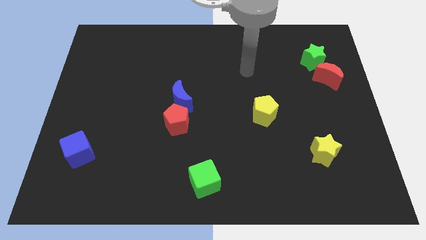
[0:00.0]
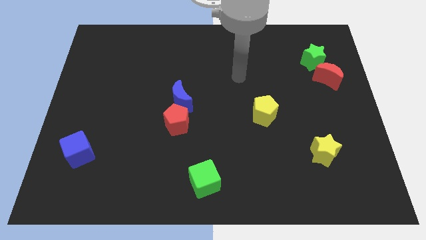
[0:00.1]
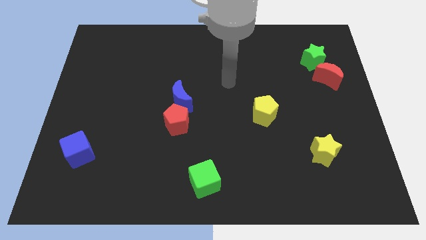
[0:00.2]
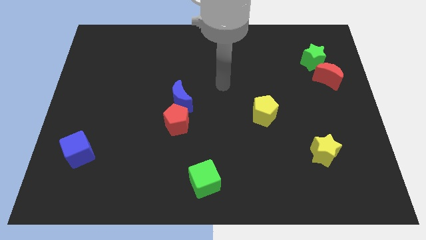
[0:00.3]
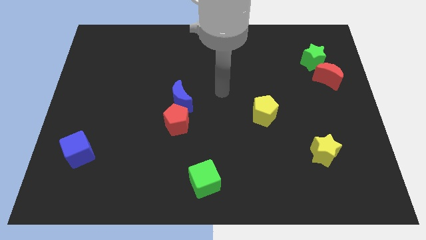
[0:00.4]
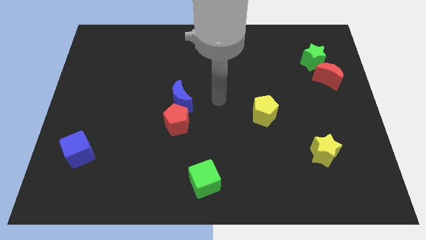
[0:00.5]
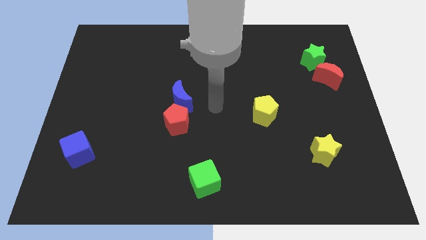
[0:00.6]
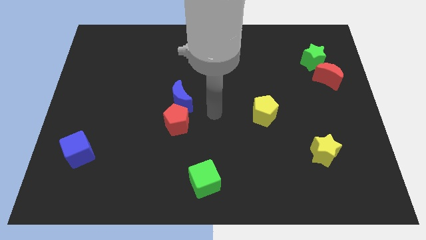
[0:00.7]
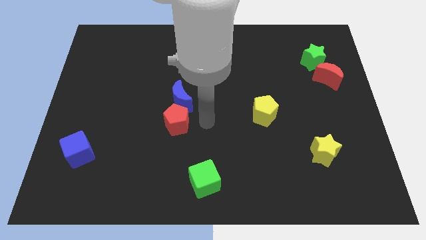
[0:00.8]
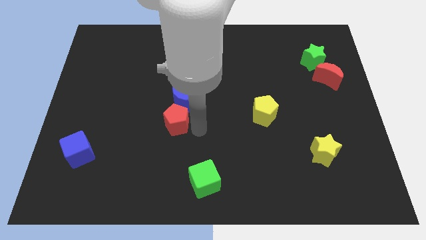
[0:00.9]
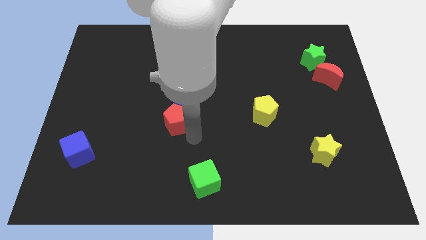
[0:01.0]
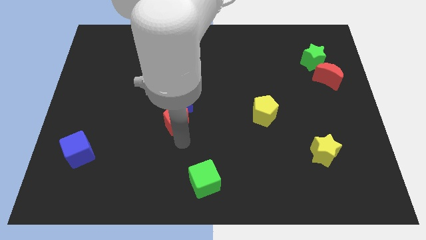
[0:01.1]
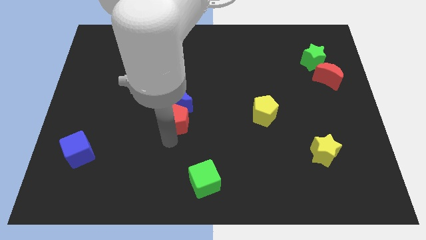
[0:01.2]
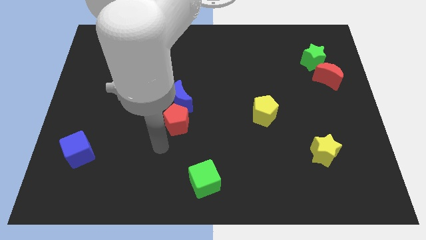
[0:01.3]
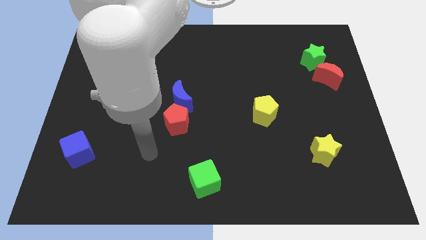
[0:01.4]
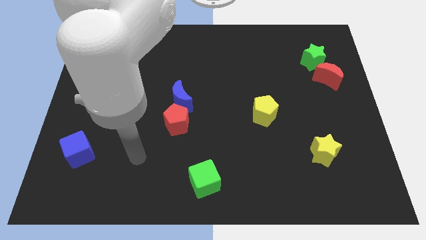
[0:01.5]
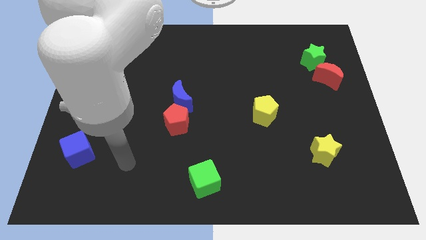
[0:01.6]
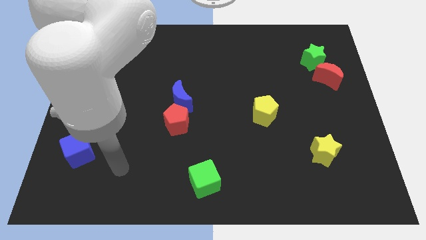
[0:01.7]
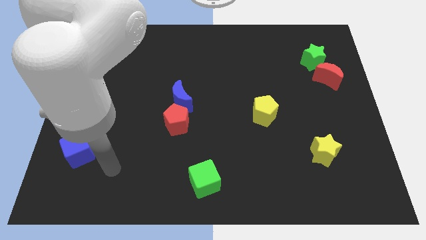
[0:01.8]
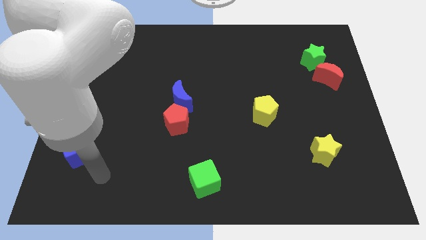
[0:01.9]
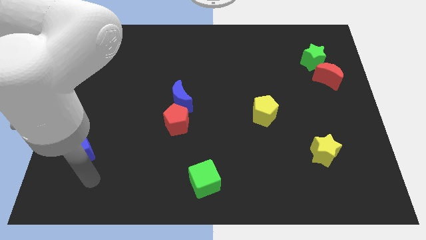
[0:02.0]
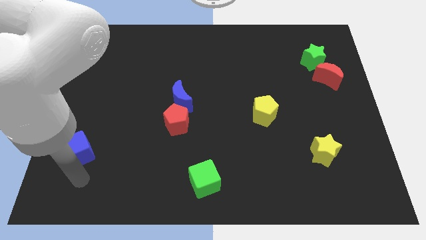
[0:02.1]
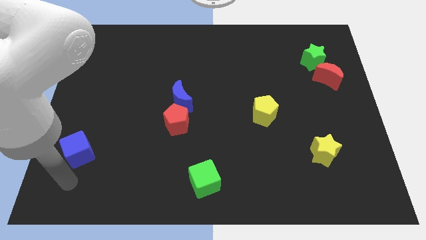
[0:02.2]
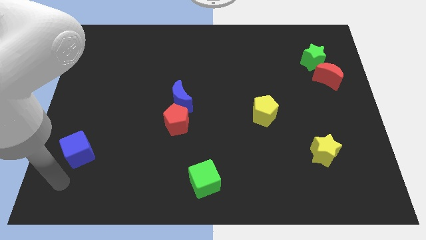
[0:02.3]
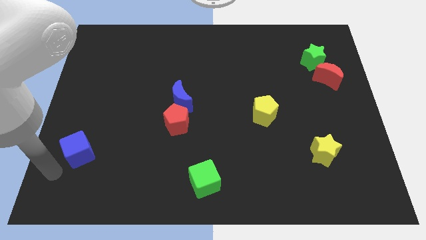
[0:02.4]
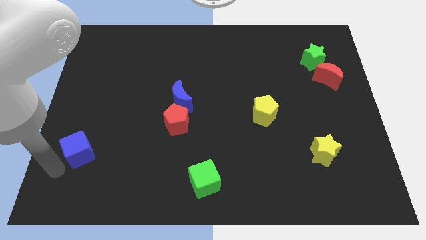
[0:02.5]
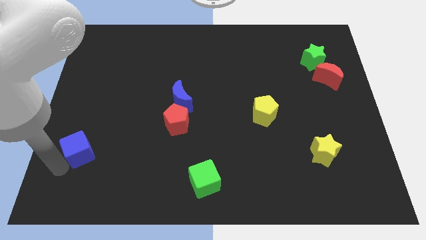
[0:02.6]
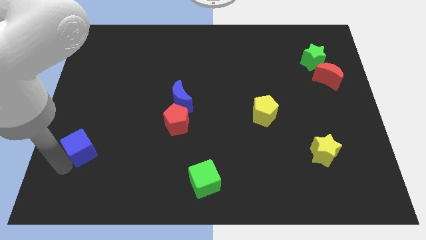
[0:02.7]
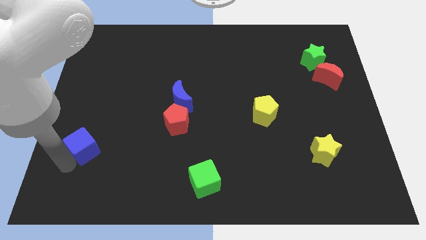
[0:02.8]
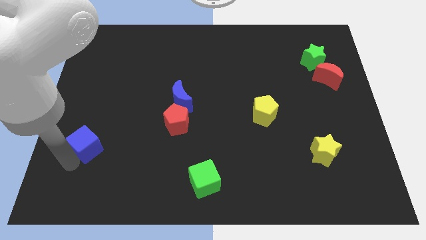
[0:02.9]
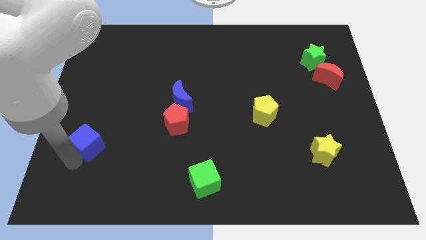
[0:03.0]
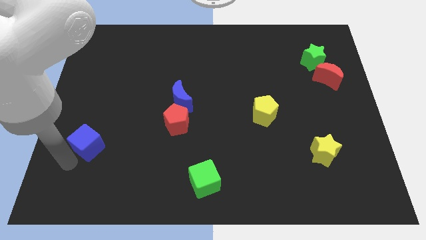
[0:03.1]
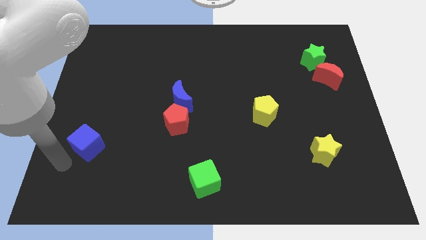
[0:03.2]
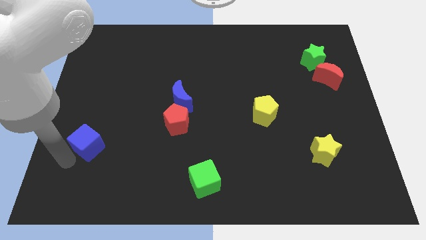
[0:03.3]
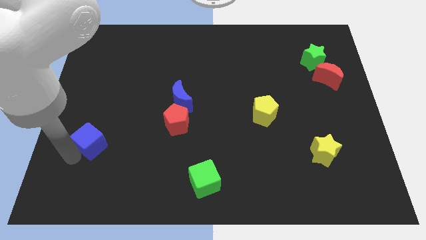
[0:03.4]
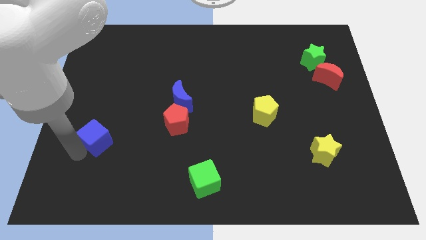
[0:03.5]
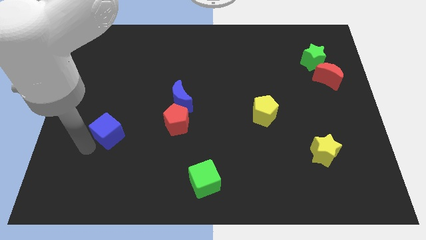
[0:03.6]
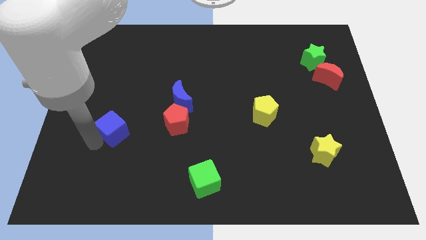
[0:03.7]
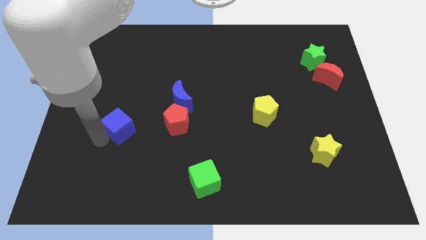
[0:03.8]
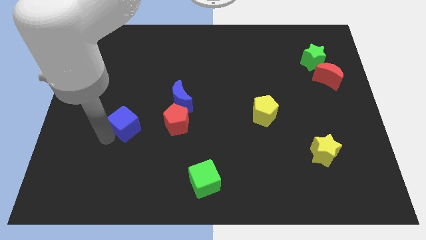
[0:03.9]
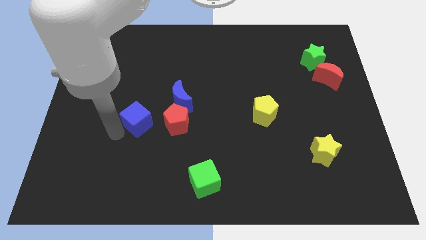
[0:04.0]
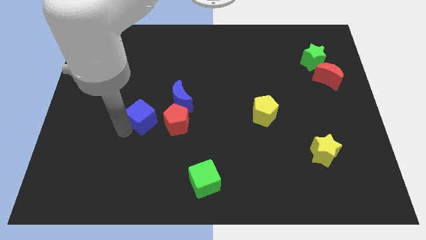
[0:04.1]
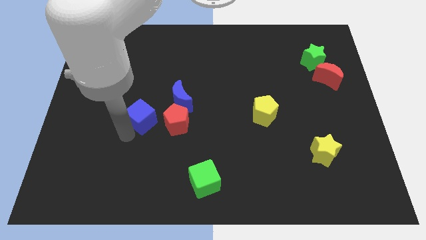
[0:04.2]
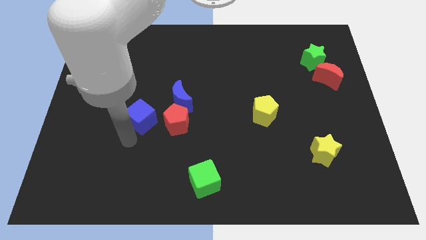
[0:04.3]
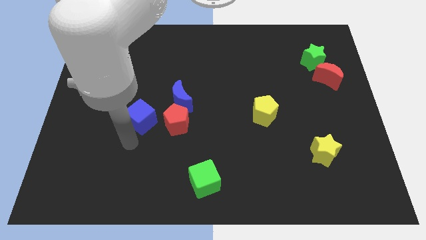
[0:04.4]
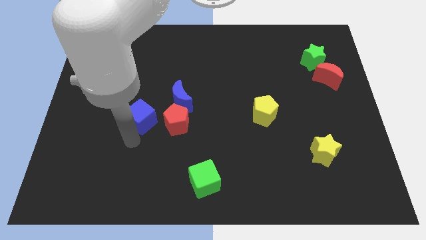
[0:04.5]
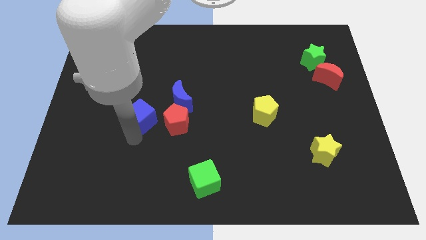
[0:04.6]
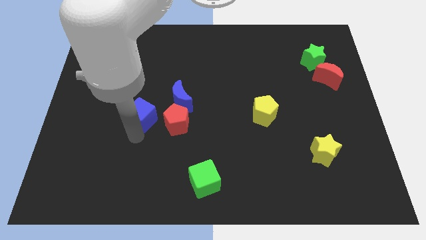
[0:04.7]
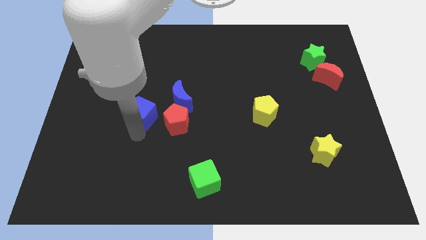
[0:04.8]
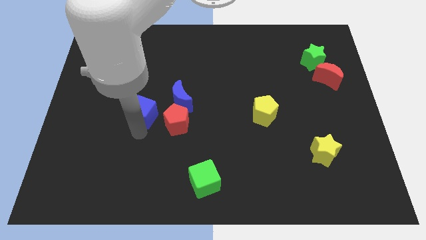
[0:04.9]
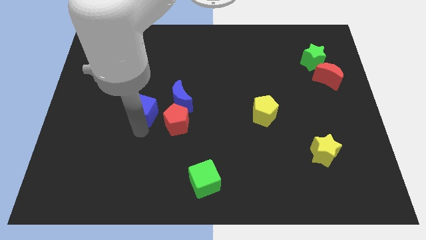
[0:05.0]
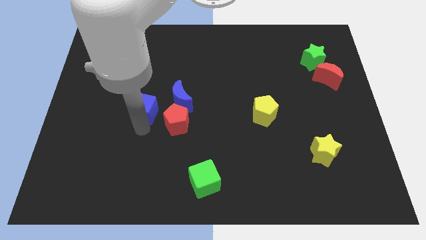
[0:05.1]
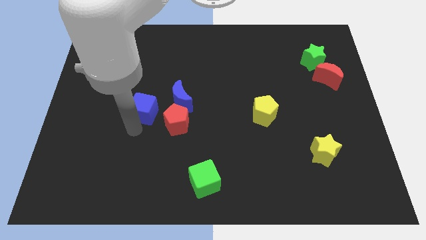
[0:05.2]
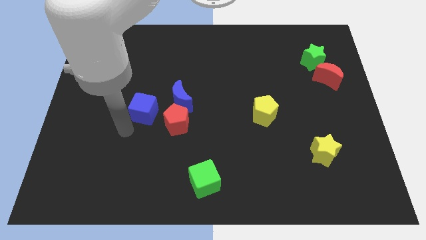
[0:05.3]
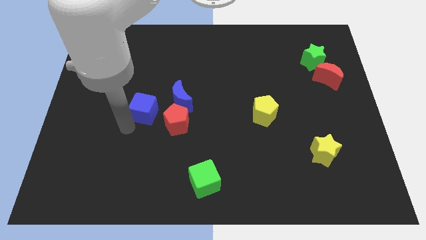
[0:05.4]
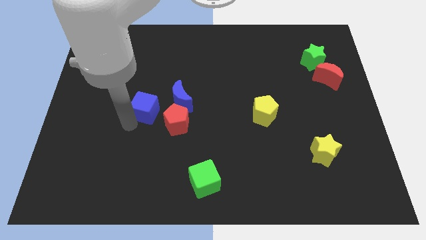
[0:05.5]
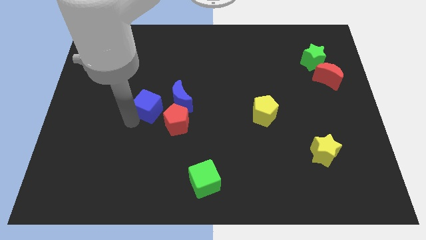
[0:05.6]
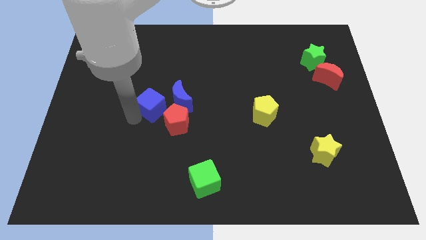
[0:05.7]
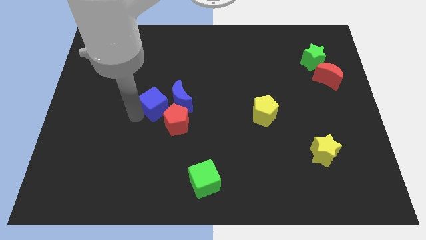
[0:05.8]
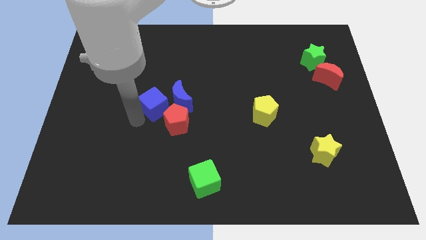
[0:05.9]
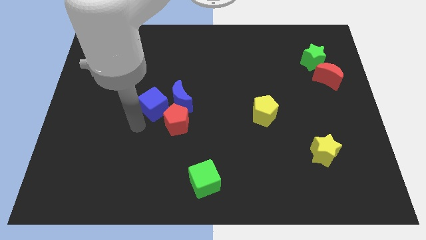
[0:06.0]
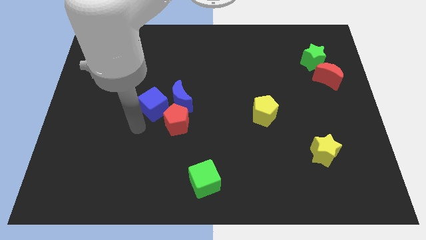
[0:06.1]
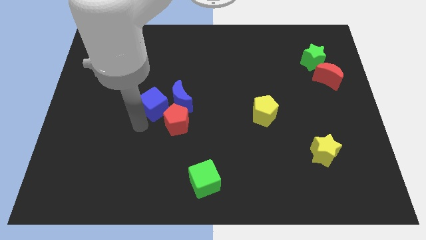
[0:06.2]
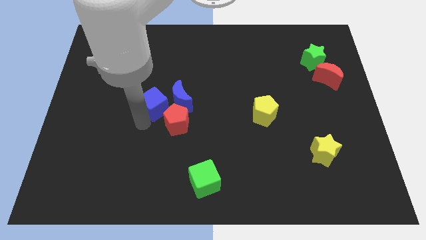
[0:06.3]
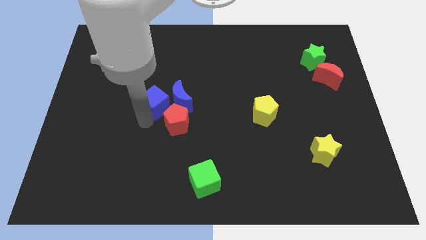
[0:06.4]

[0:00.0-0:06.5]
push the blue cube upwards and to the right

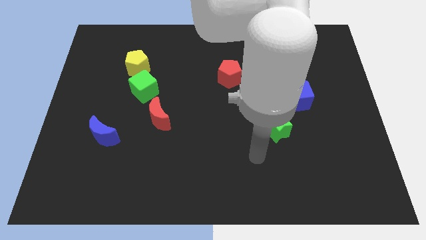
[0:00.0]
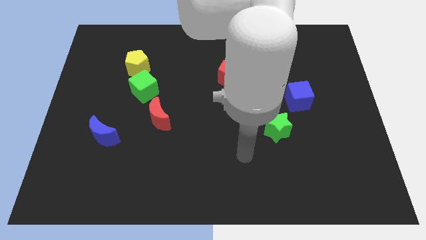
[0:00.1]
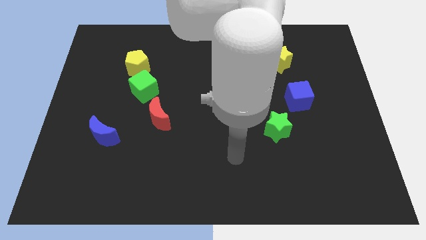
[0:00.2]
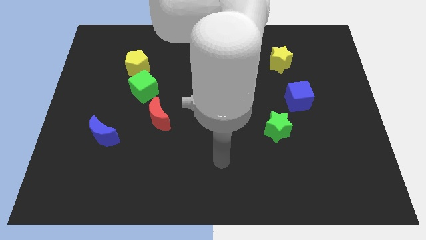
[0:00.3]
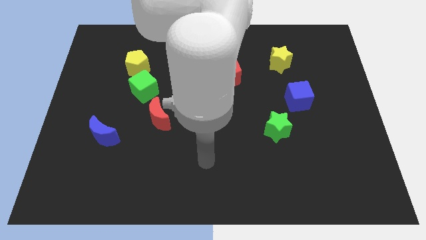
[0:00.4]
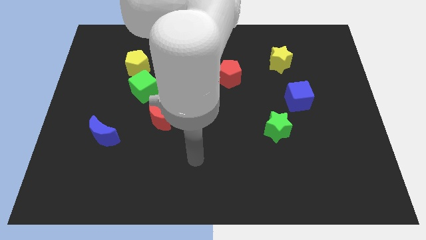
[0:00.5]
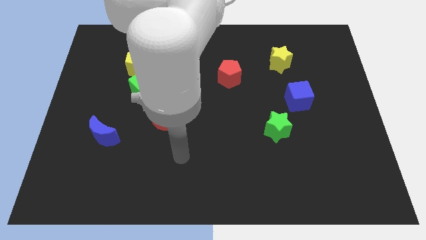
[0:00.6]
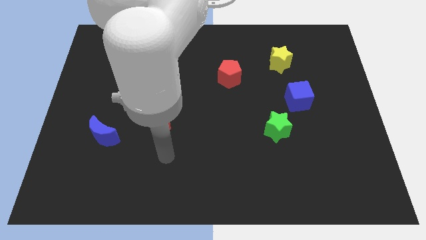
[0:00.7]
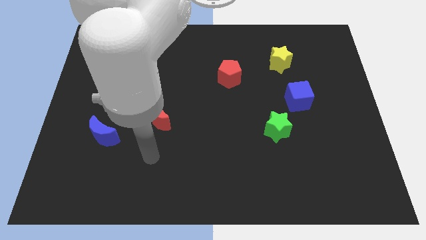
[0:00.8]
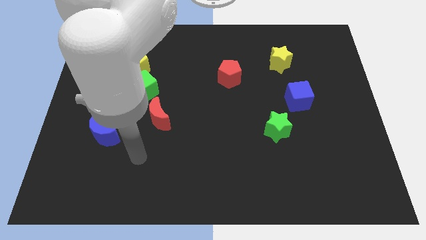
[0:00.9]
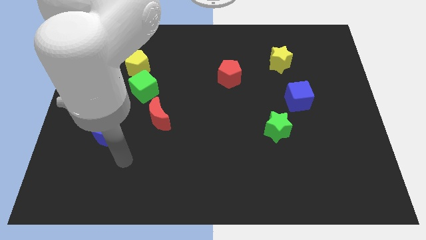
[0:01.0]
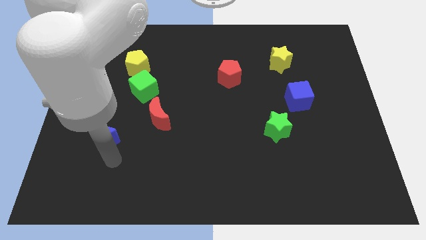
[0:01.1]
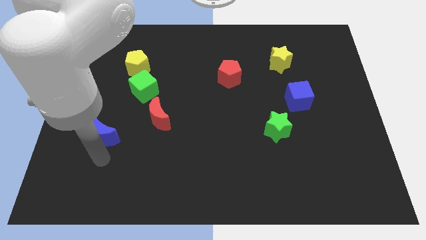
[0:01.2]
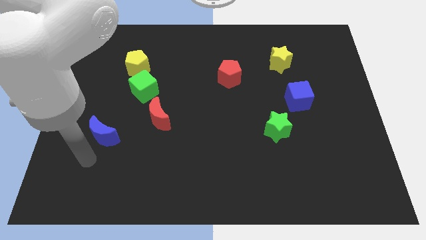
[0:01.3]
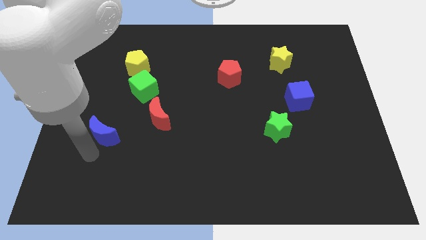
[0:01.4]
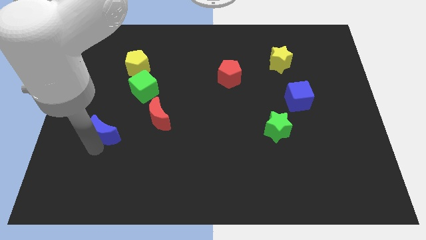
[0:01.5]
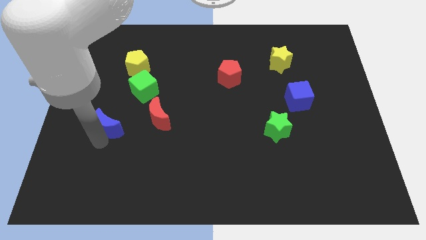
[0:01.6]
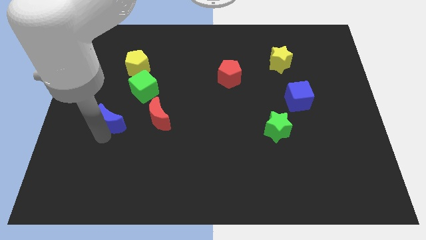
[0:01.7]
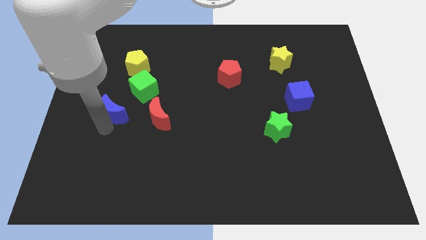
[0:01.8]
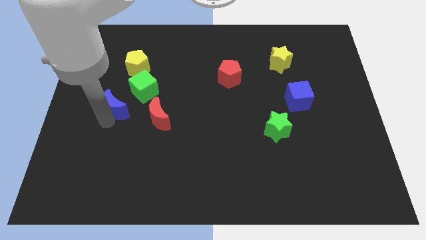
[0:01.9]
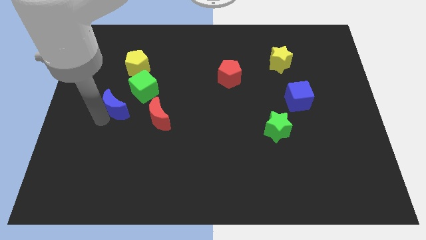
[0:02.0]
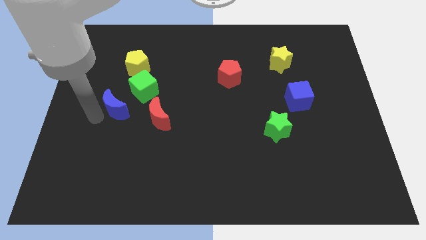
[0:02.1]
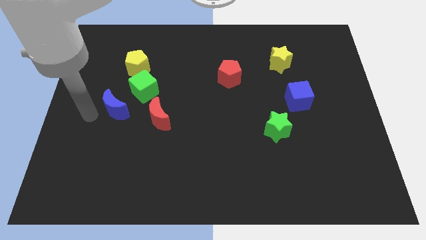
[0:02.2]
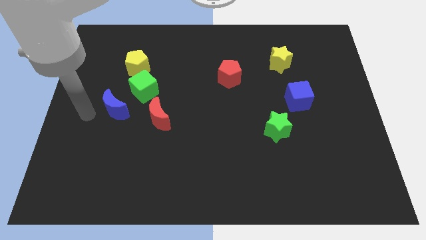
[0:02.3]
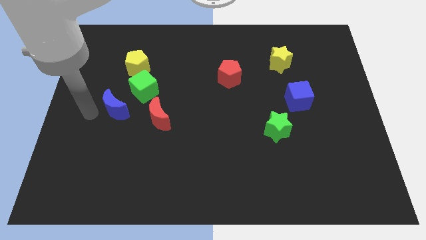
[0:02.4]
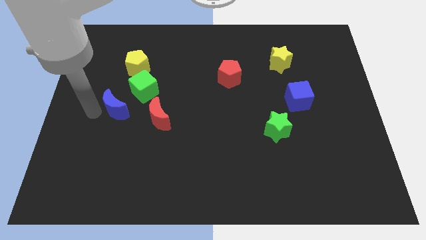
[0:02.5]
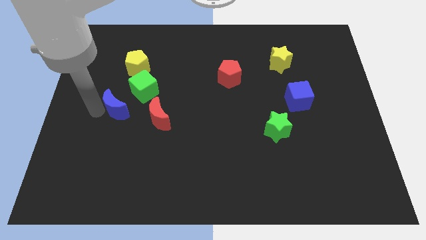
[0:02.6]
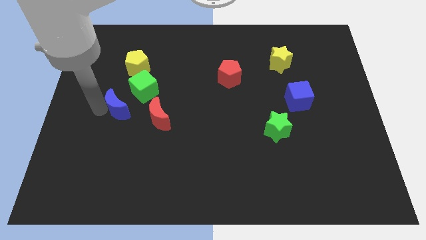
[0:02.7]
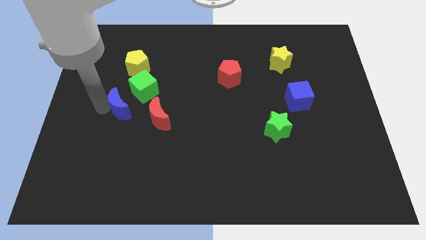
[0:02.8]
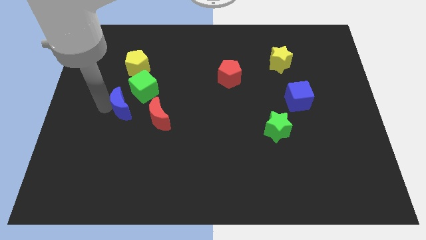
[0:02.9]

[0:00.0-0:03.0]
push the blue moon a little diagonally upwards and right
